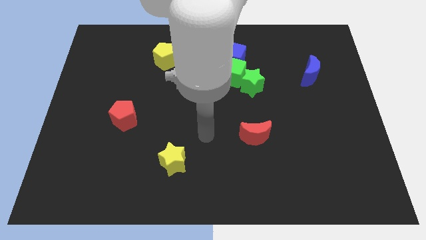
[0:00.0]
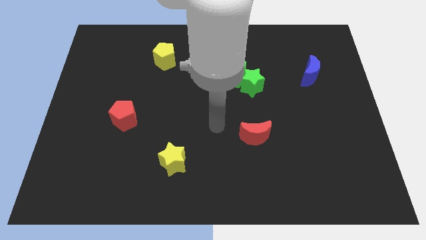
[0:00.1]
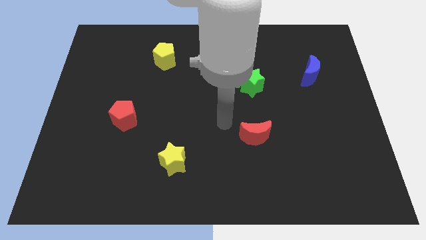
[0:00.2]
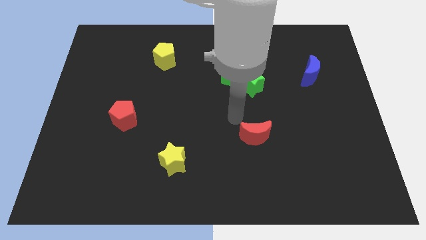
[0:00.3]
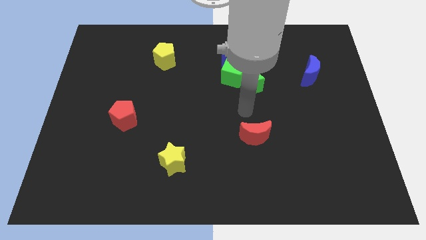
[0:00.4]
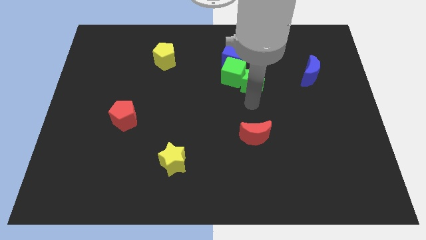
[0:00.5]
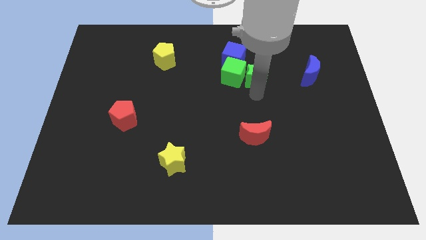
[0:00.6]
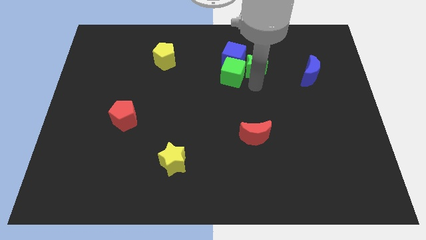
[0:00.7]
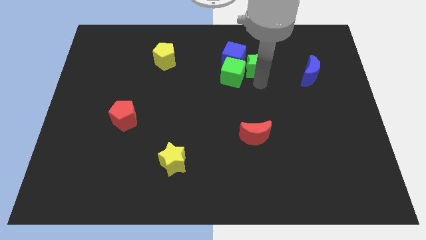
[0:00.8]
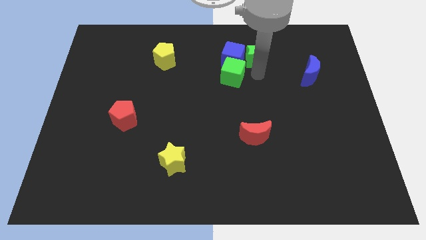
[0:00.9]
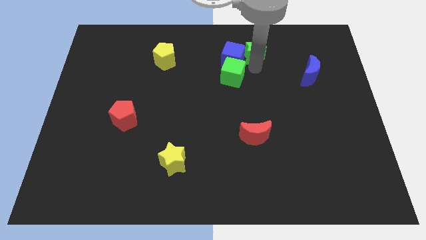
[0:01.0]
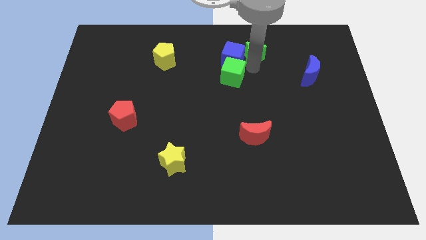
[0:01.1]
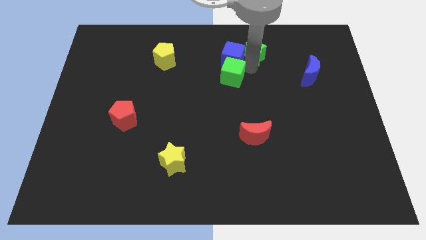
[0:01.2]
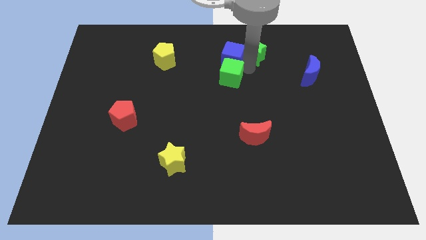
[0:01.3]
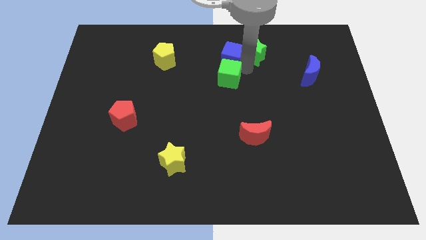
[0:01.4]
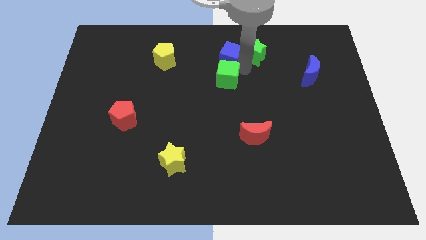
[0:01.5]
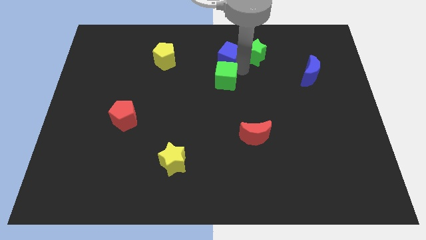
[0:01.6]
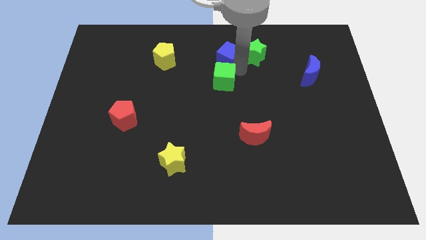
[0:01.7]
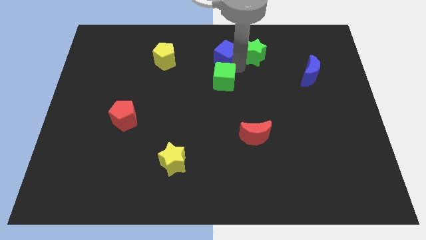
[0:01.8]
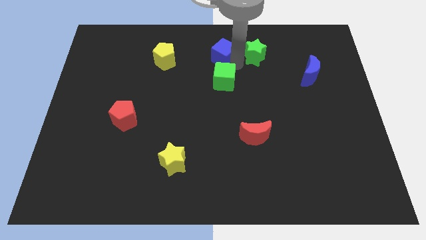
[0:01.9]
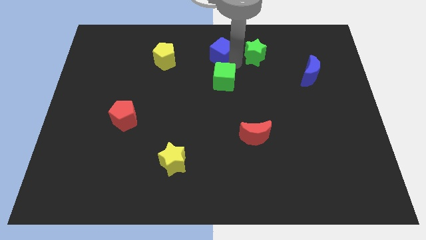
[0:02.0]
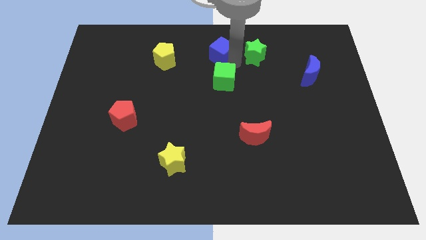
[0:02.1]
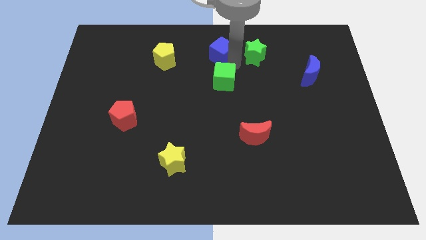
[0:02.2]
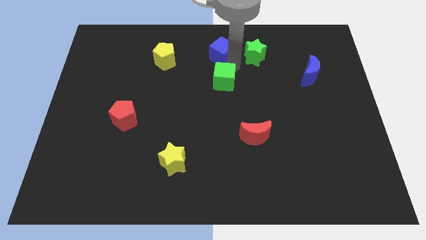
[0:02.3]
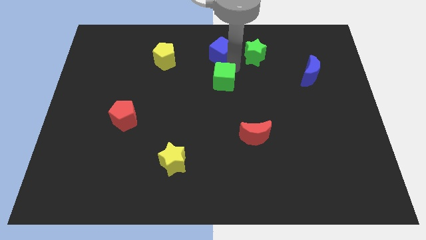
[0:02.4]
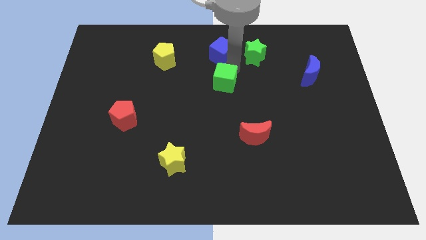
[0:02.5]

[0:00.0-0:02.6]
pull the green cube apart from the blue cube and green star

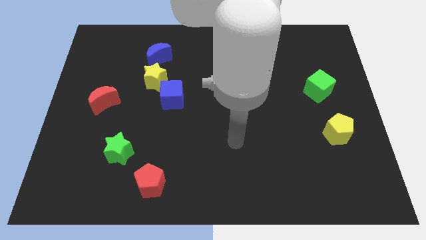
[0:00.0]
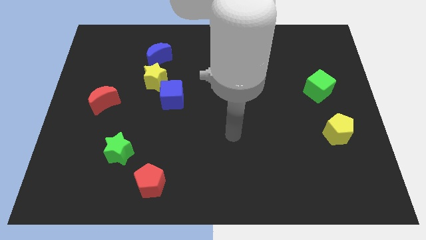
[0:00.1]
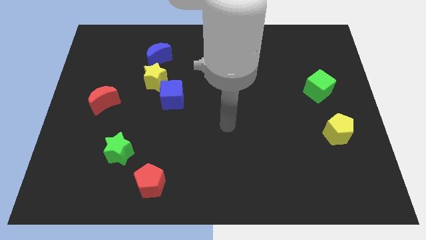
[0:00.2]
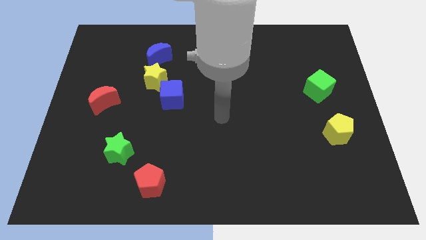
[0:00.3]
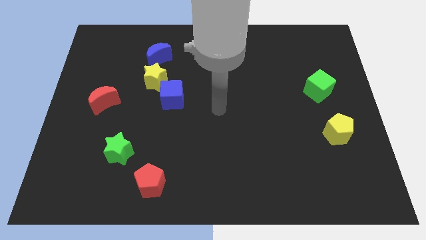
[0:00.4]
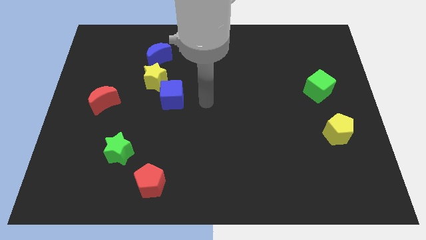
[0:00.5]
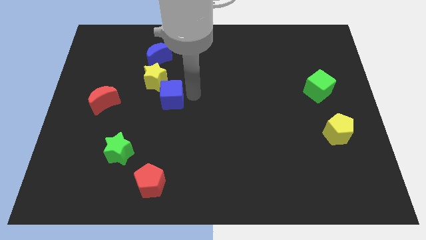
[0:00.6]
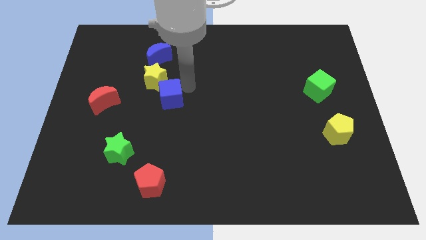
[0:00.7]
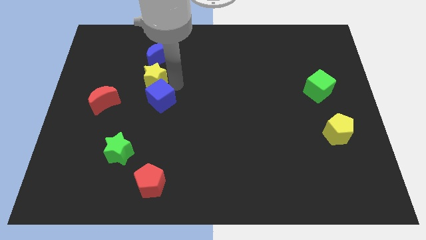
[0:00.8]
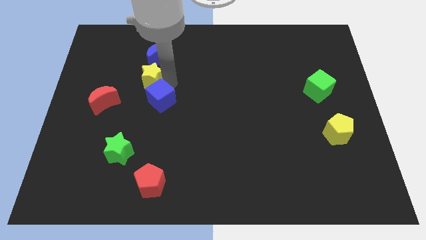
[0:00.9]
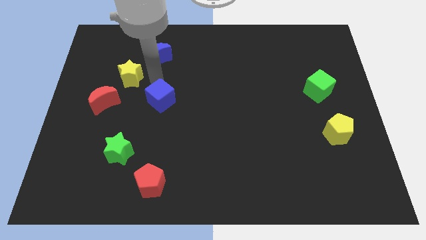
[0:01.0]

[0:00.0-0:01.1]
separate the blue cube from the yellow star

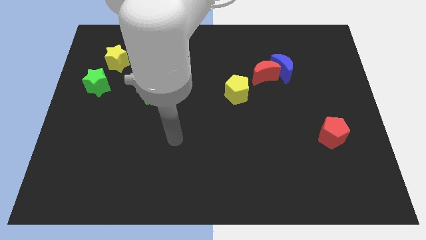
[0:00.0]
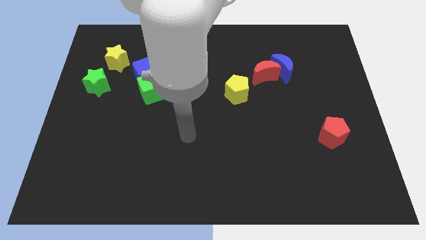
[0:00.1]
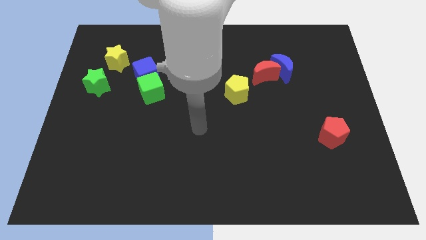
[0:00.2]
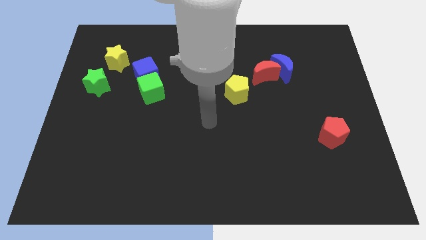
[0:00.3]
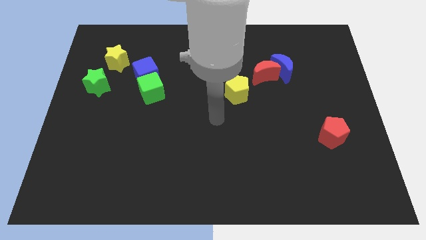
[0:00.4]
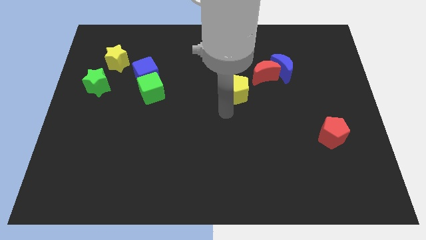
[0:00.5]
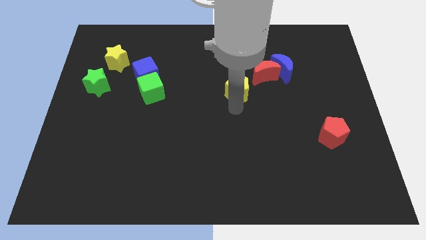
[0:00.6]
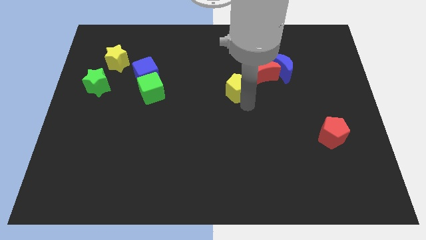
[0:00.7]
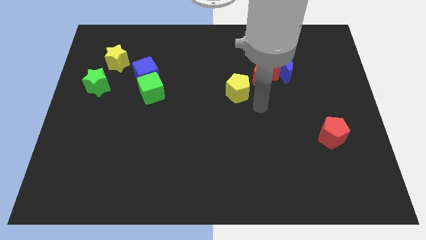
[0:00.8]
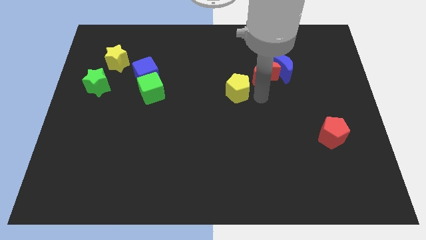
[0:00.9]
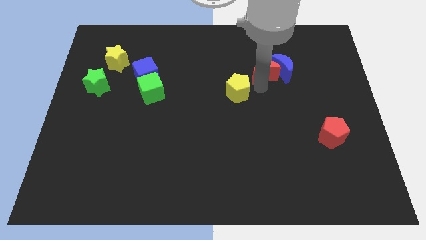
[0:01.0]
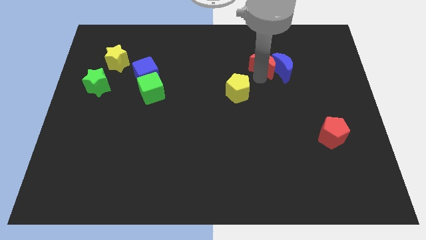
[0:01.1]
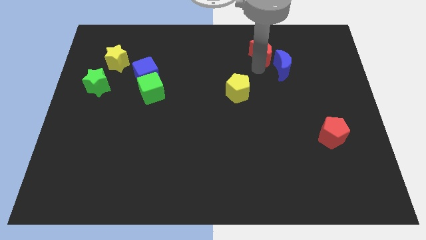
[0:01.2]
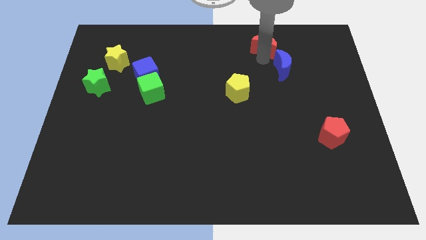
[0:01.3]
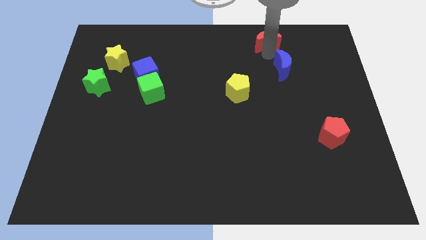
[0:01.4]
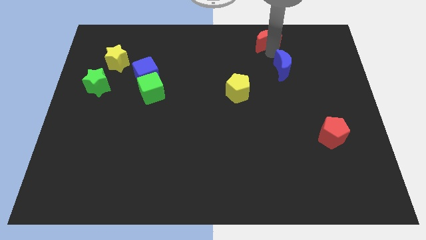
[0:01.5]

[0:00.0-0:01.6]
move the blue moon away from the red moon

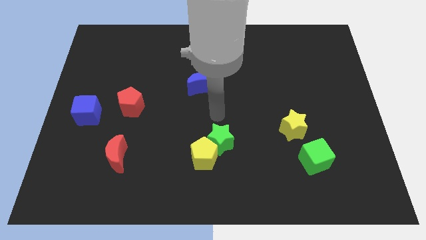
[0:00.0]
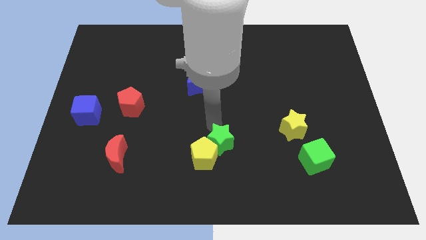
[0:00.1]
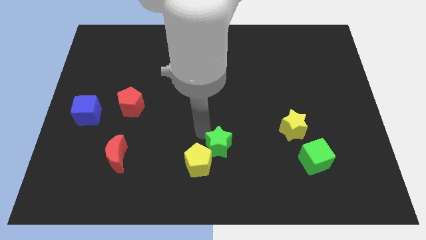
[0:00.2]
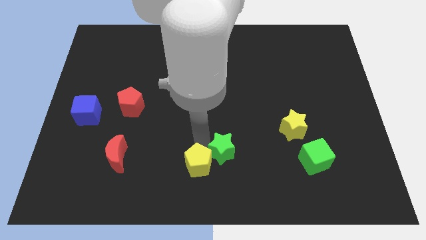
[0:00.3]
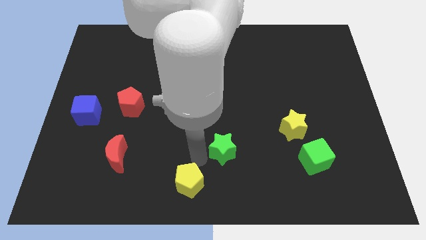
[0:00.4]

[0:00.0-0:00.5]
move the green star away from the yellow pentagon

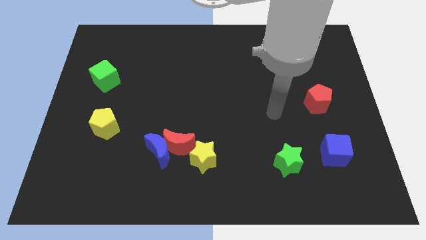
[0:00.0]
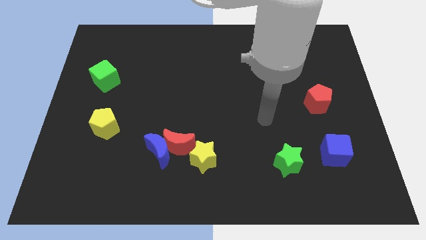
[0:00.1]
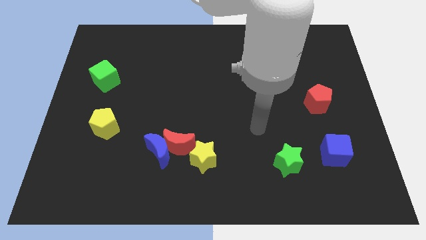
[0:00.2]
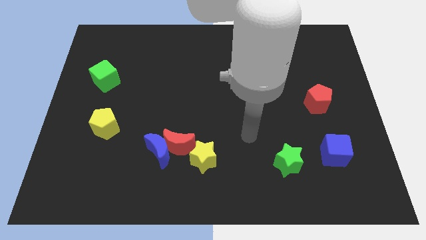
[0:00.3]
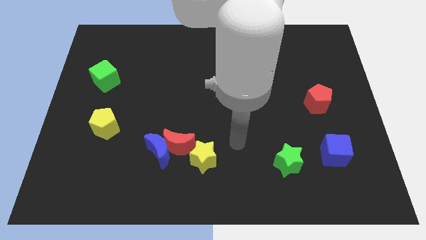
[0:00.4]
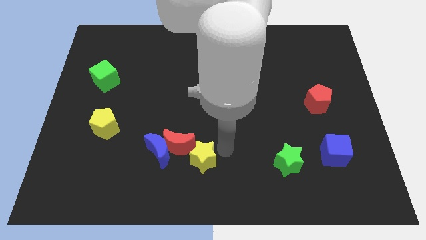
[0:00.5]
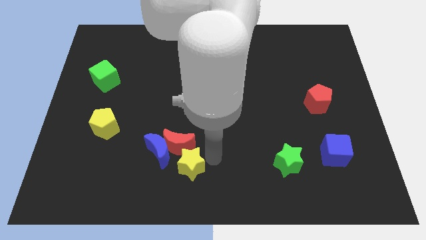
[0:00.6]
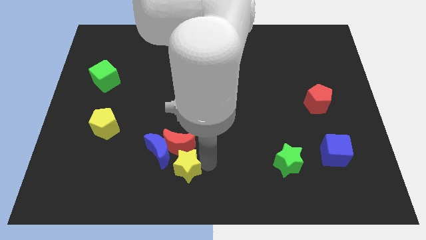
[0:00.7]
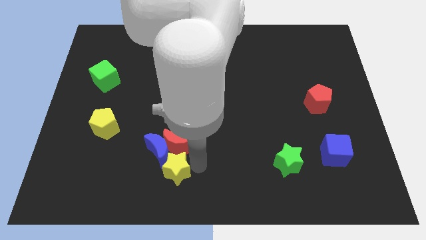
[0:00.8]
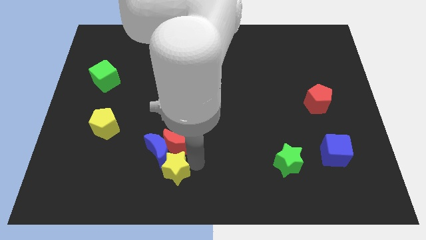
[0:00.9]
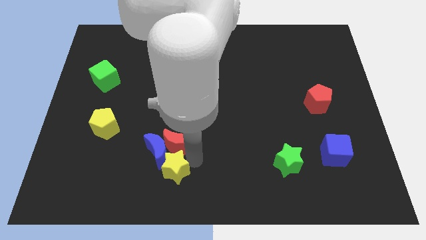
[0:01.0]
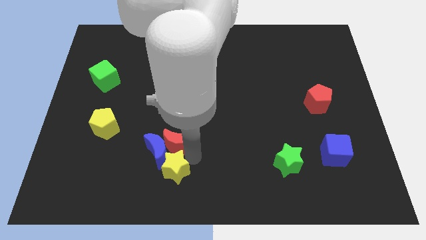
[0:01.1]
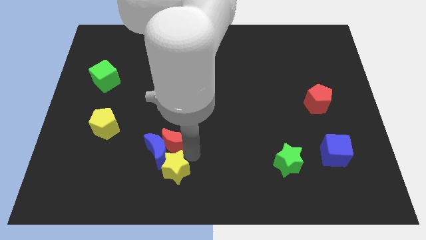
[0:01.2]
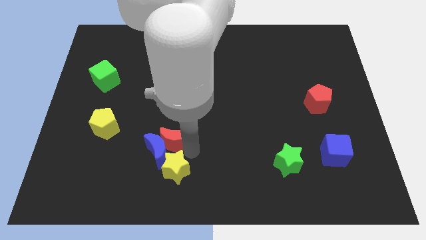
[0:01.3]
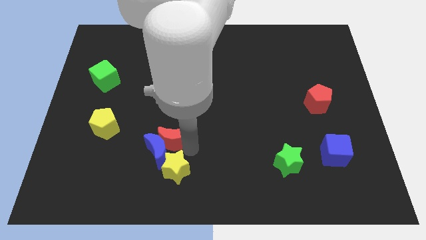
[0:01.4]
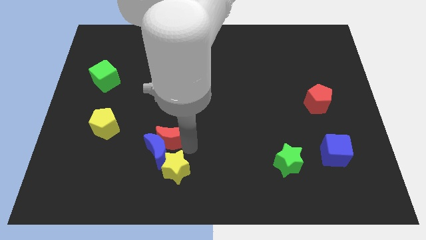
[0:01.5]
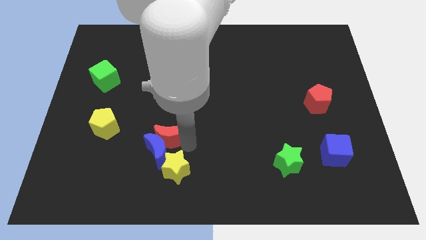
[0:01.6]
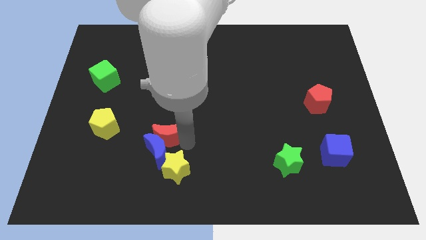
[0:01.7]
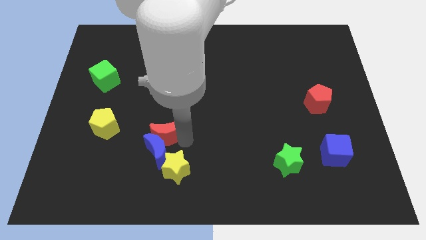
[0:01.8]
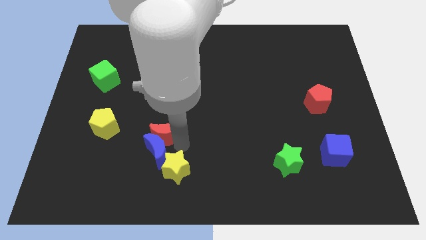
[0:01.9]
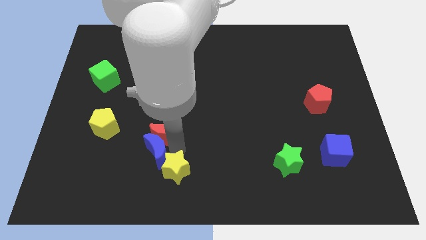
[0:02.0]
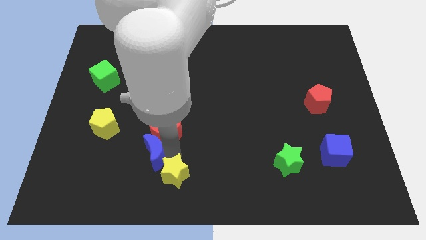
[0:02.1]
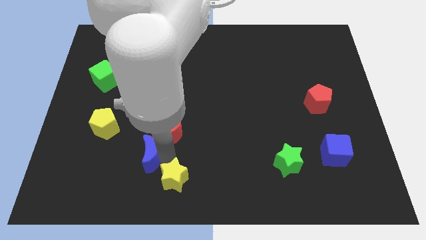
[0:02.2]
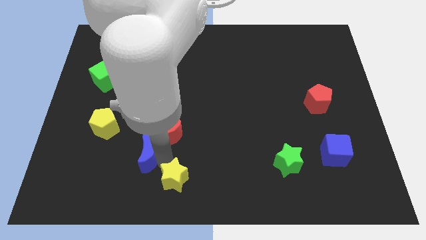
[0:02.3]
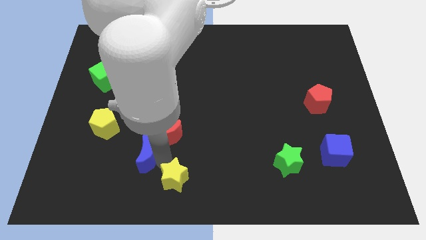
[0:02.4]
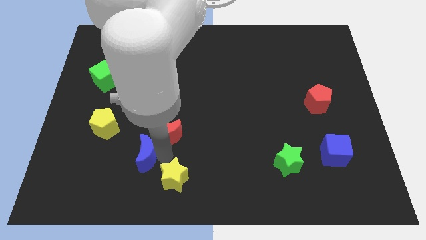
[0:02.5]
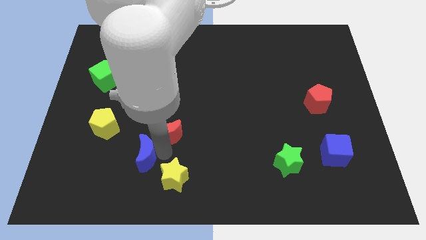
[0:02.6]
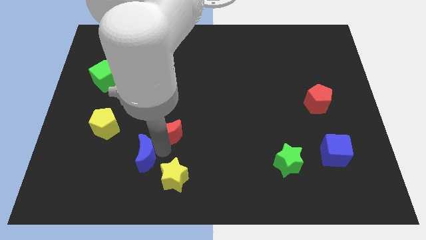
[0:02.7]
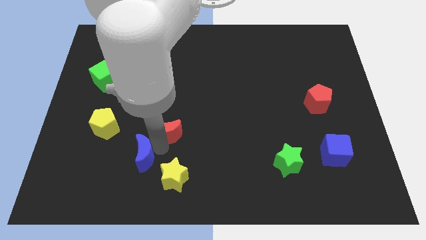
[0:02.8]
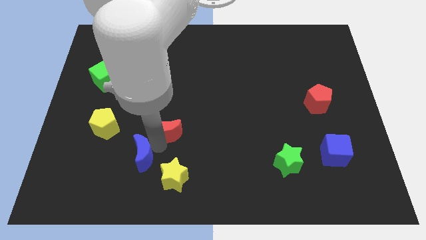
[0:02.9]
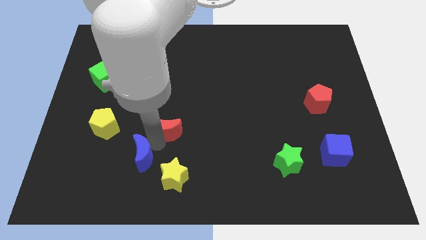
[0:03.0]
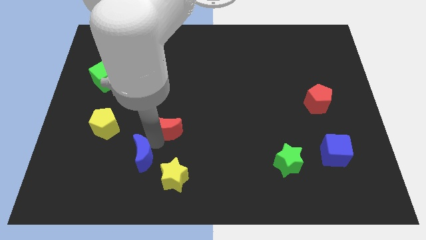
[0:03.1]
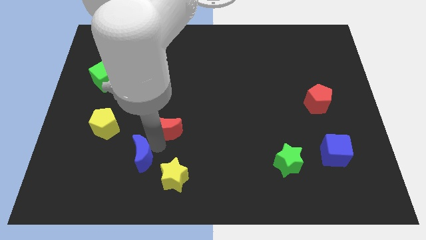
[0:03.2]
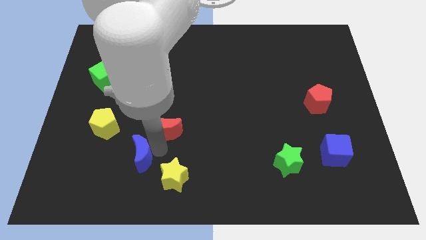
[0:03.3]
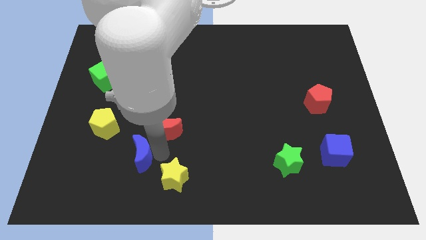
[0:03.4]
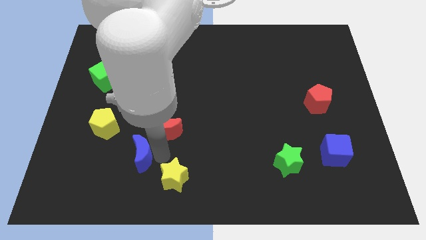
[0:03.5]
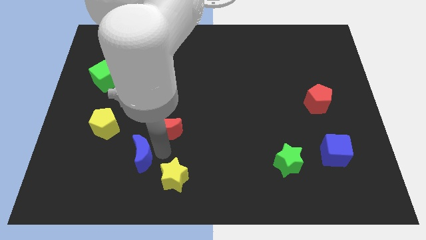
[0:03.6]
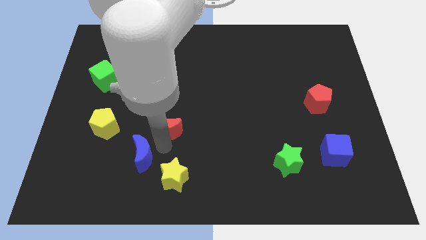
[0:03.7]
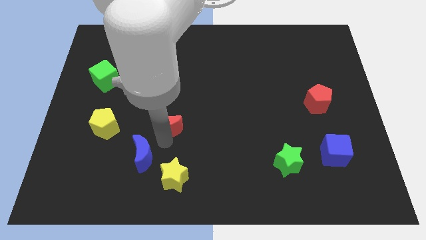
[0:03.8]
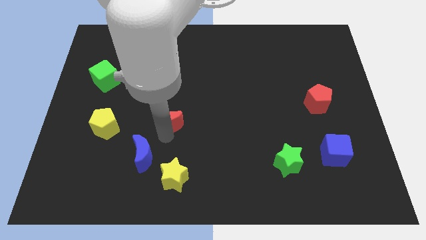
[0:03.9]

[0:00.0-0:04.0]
pull the red moon apart from the blue moon and yellow star
